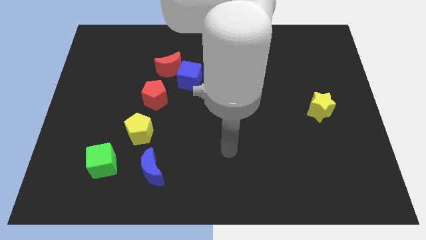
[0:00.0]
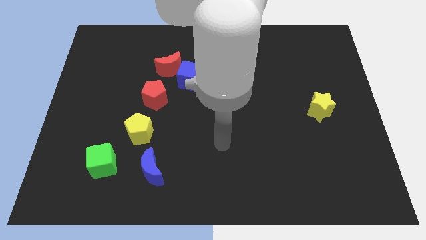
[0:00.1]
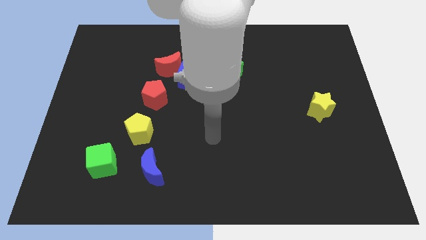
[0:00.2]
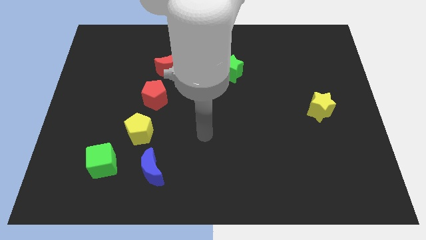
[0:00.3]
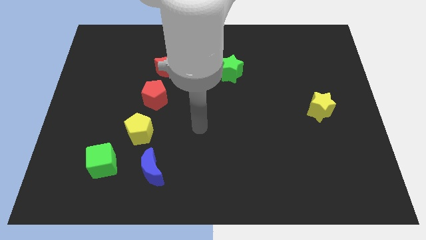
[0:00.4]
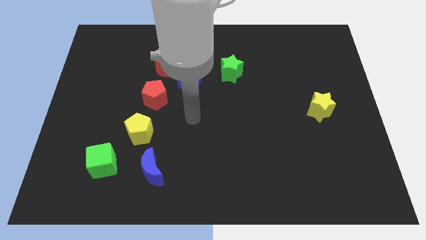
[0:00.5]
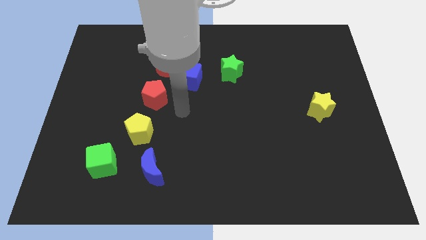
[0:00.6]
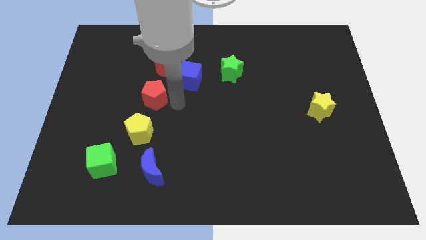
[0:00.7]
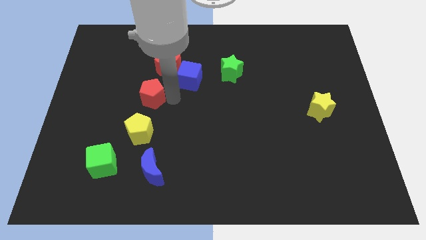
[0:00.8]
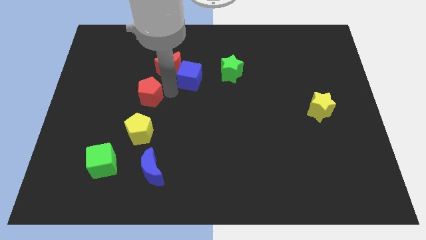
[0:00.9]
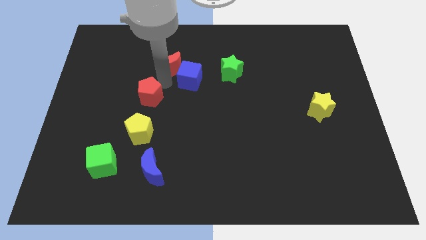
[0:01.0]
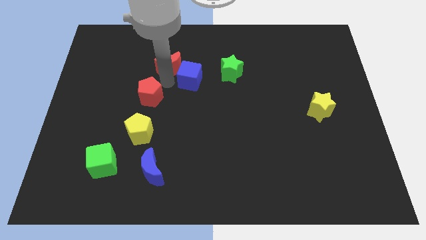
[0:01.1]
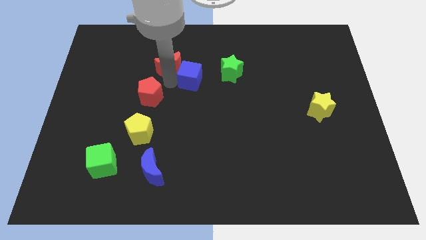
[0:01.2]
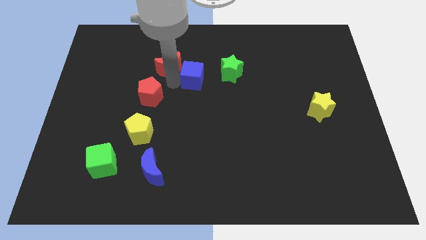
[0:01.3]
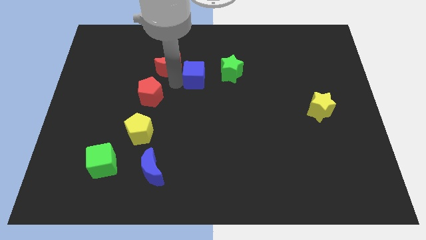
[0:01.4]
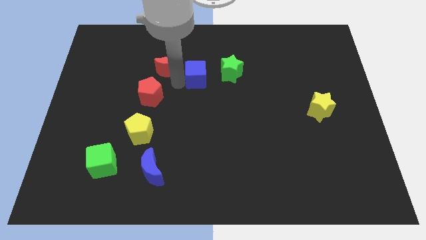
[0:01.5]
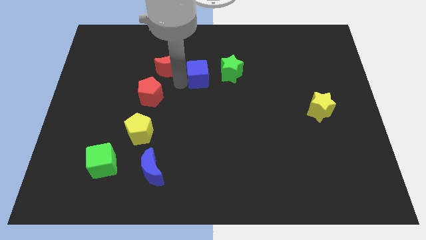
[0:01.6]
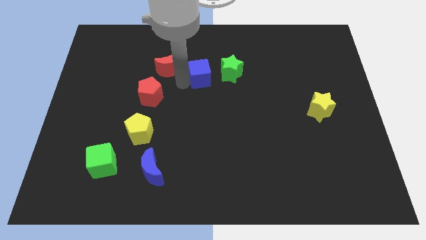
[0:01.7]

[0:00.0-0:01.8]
separate the blue cube from the red moon and red pentagon

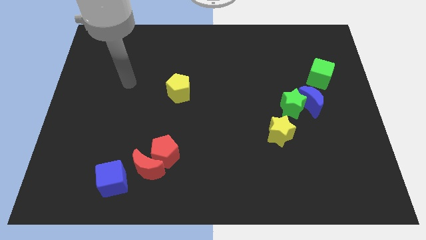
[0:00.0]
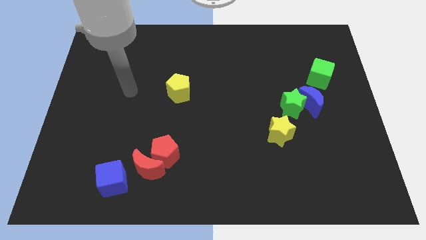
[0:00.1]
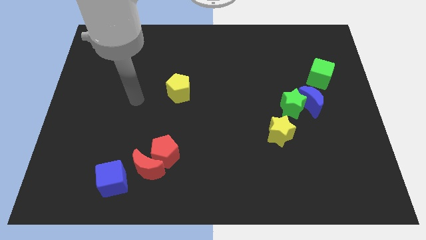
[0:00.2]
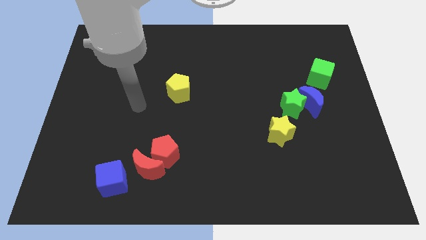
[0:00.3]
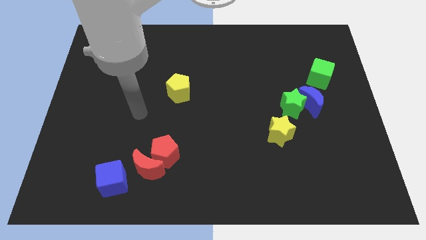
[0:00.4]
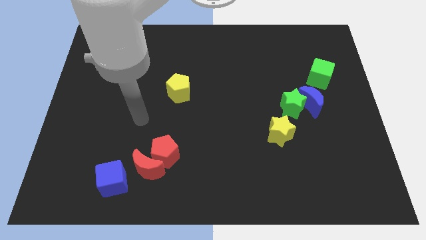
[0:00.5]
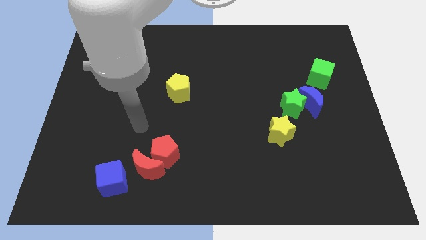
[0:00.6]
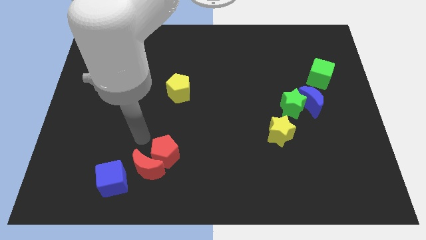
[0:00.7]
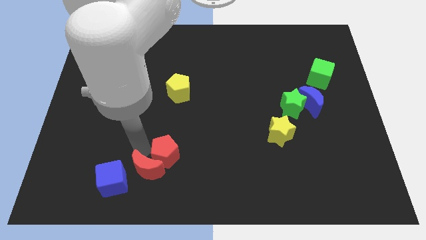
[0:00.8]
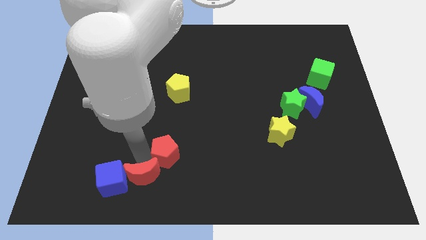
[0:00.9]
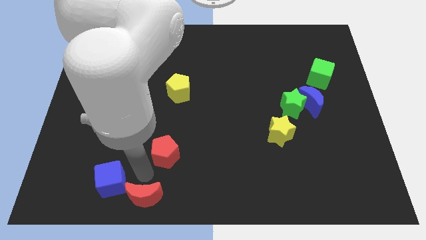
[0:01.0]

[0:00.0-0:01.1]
move the red pentagon away from the red moon

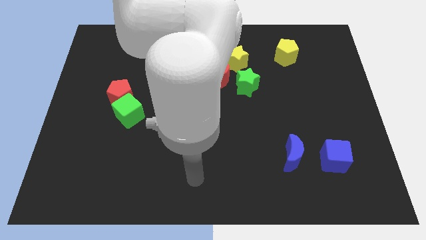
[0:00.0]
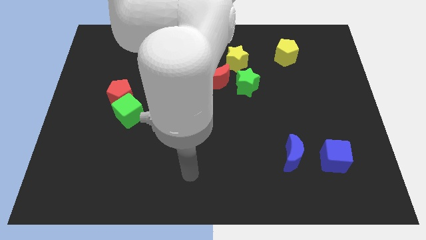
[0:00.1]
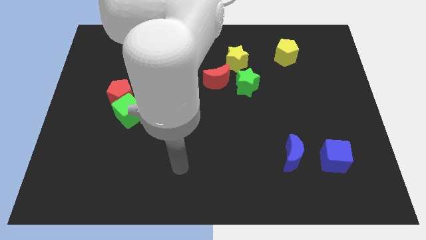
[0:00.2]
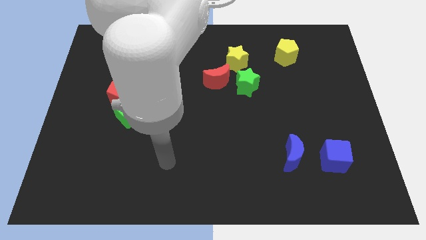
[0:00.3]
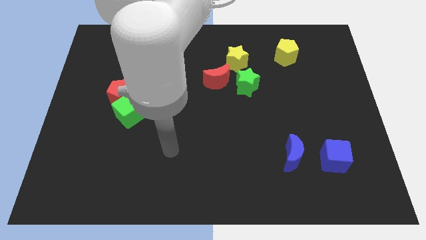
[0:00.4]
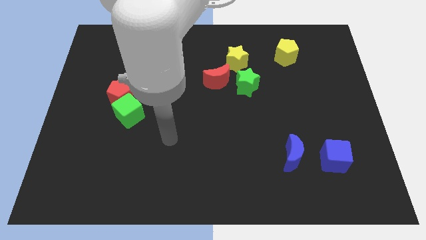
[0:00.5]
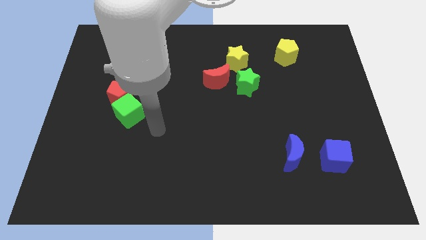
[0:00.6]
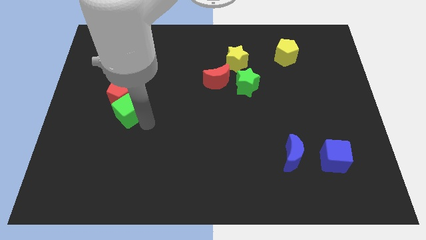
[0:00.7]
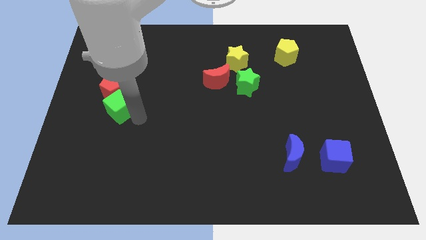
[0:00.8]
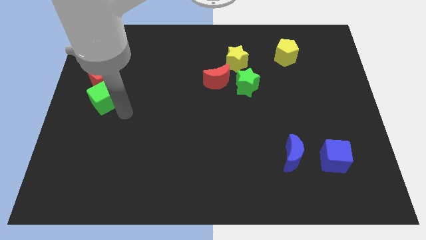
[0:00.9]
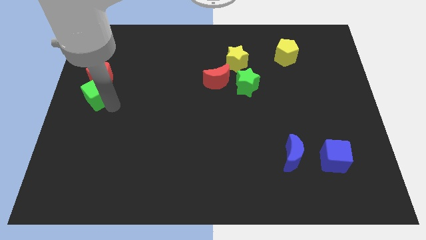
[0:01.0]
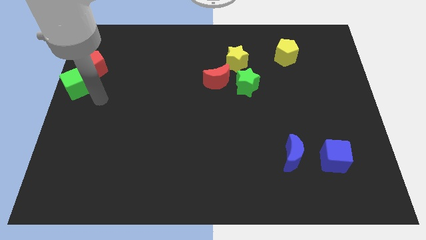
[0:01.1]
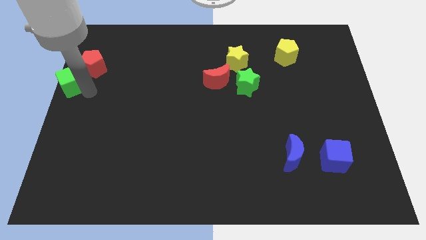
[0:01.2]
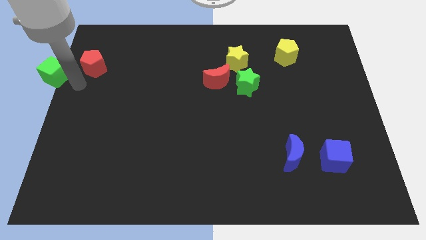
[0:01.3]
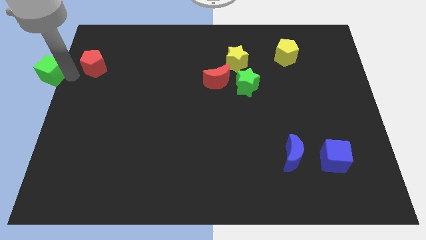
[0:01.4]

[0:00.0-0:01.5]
pull the red pentagon apart from the green cube

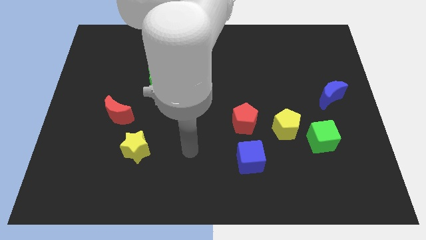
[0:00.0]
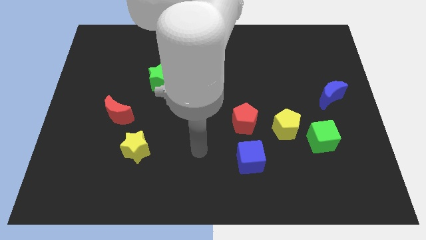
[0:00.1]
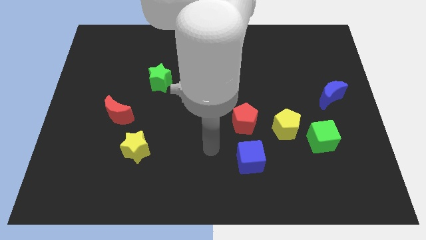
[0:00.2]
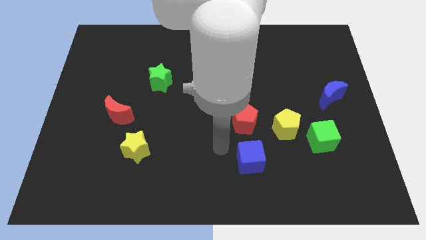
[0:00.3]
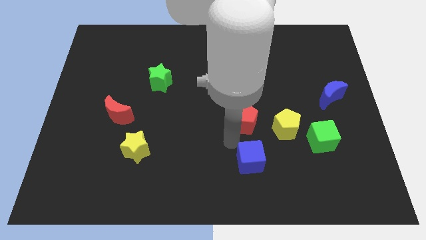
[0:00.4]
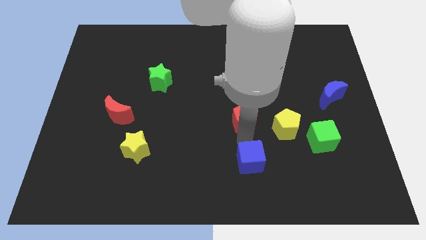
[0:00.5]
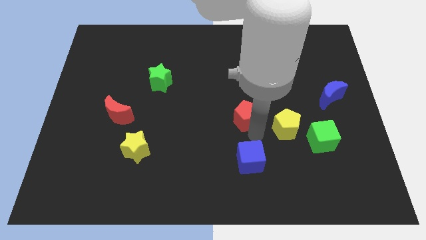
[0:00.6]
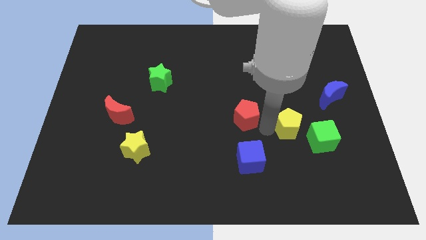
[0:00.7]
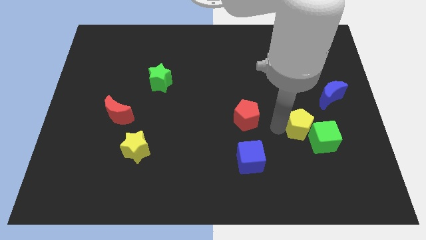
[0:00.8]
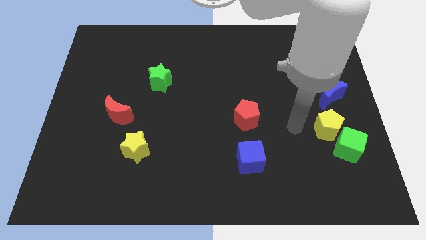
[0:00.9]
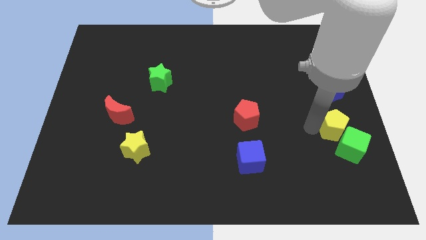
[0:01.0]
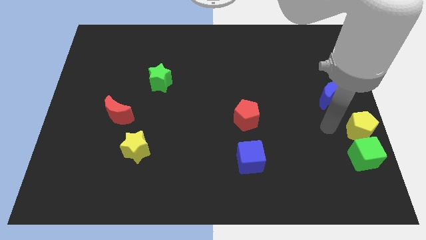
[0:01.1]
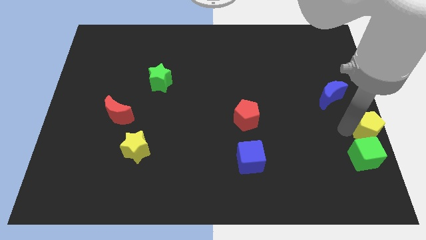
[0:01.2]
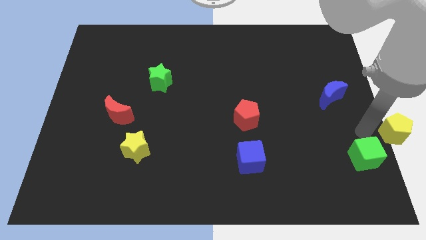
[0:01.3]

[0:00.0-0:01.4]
pull the green cube apart from the yellow pentagon

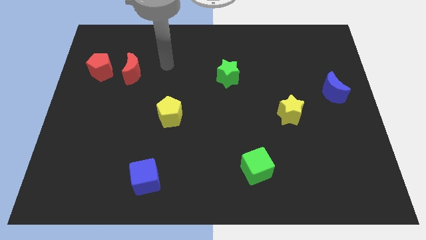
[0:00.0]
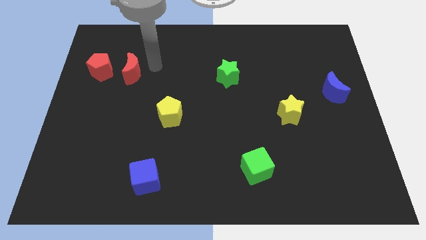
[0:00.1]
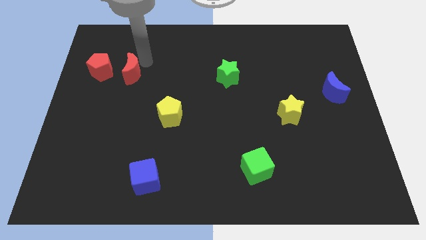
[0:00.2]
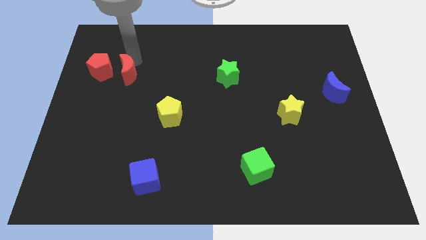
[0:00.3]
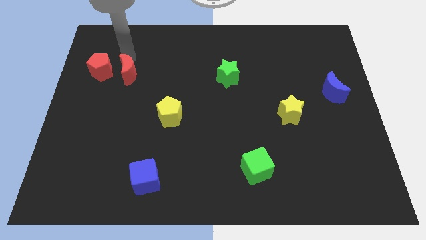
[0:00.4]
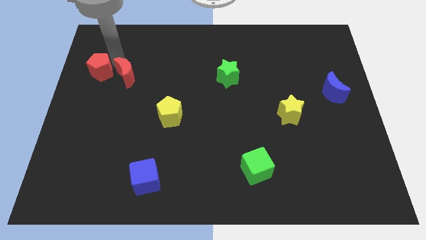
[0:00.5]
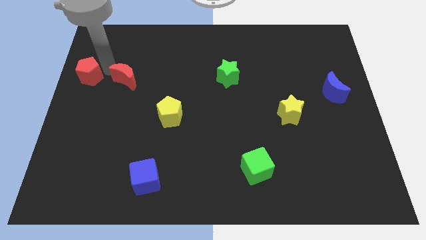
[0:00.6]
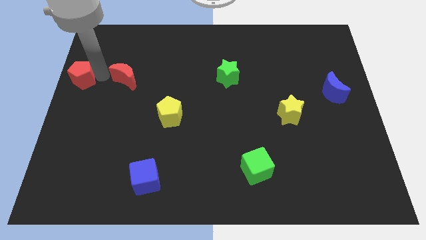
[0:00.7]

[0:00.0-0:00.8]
move the red moon away from the red pentagon

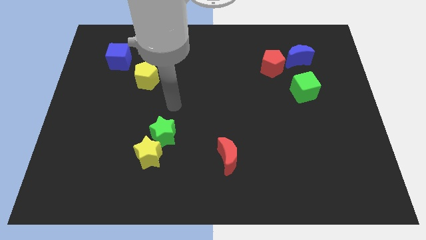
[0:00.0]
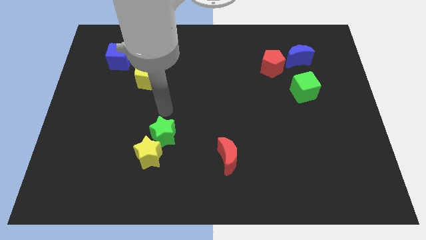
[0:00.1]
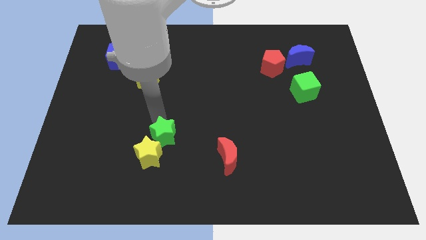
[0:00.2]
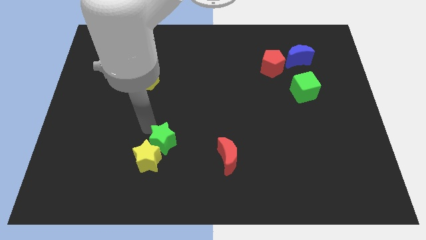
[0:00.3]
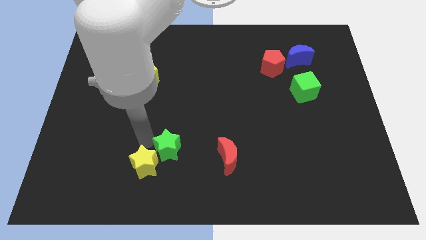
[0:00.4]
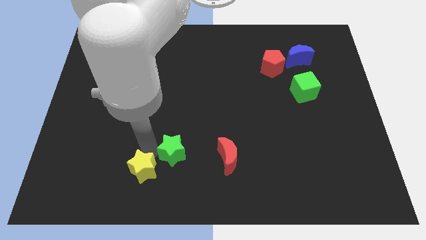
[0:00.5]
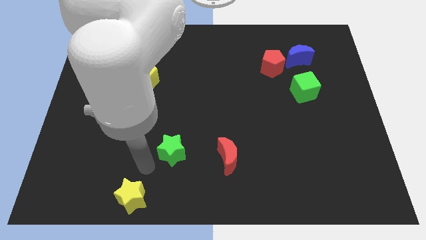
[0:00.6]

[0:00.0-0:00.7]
separate the green star from the yellow star

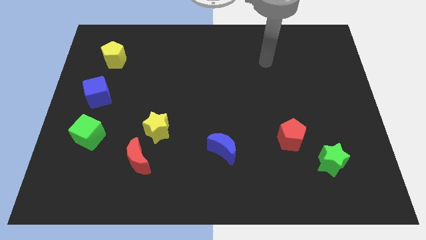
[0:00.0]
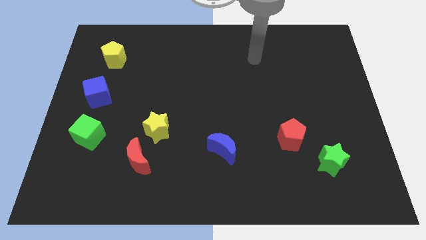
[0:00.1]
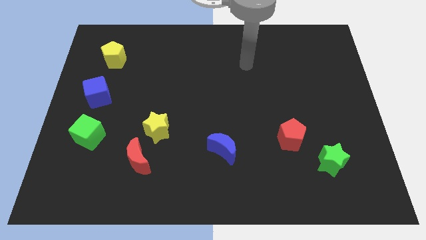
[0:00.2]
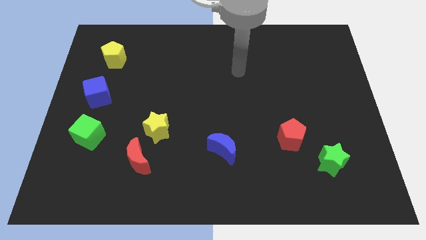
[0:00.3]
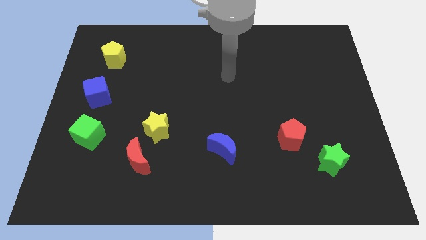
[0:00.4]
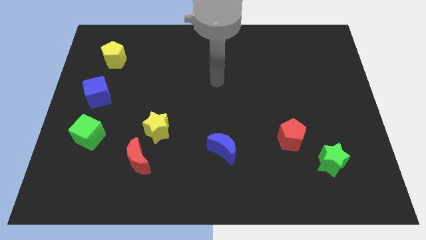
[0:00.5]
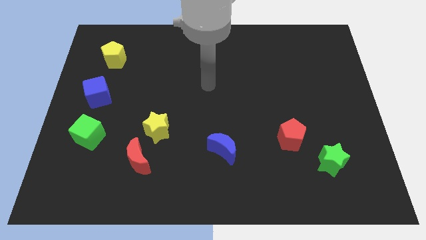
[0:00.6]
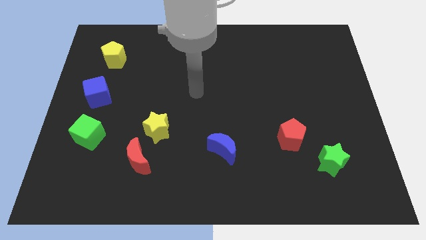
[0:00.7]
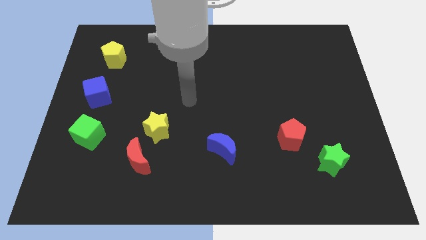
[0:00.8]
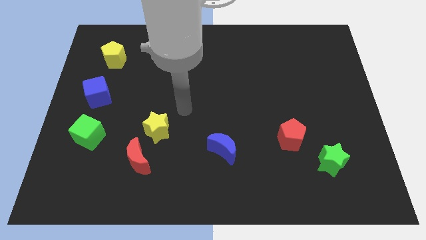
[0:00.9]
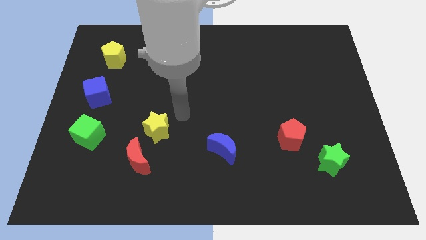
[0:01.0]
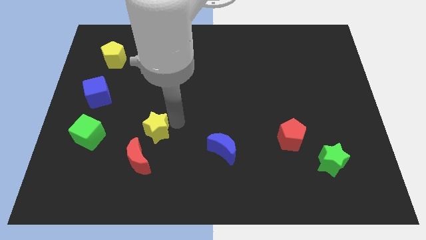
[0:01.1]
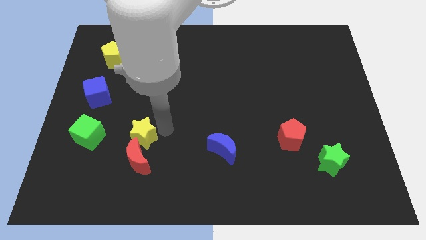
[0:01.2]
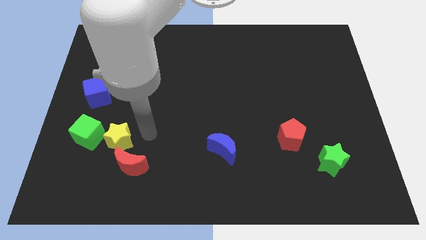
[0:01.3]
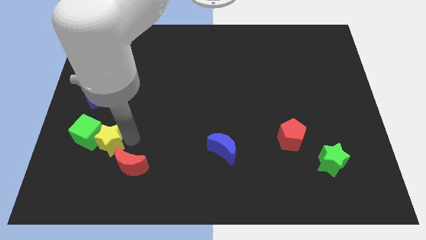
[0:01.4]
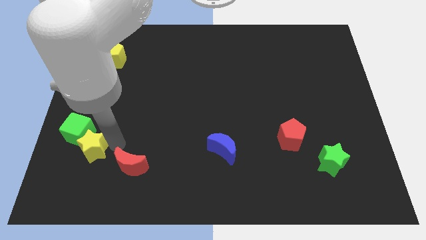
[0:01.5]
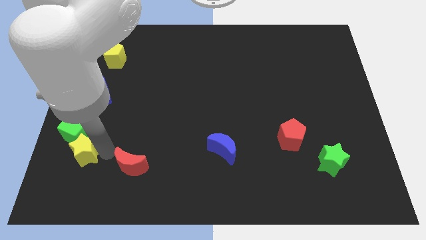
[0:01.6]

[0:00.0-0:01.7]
pull the red moon apart from the yellow star

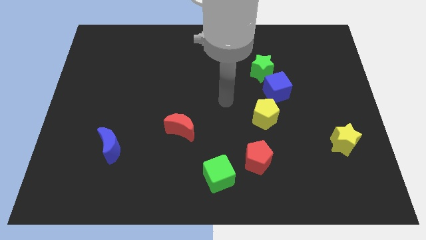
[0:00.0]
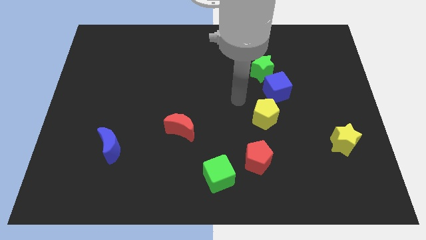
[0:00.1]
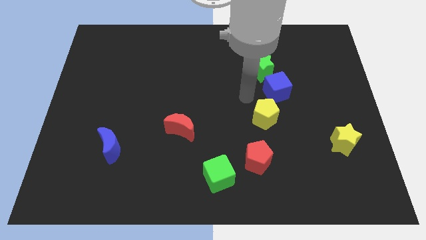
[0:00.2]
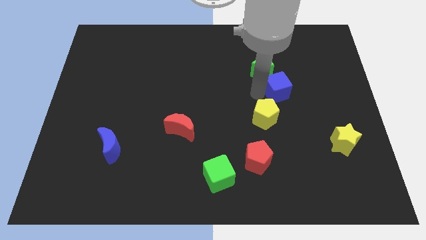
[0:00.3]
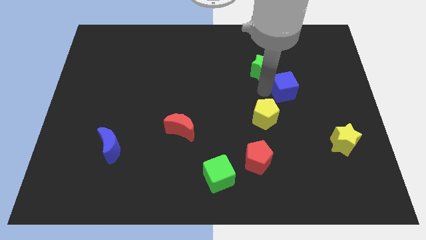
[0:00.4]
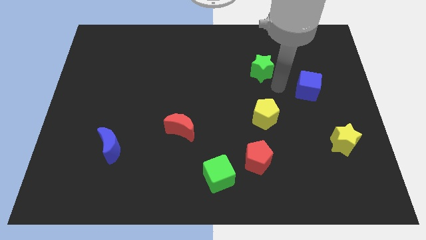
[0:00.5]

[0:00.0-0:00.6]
move the green star away from the blue cube
